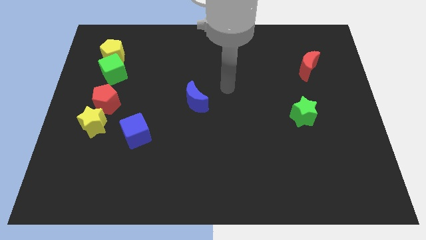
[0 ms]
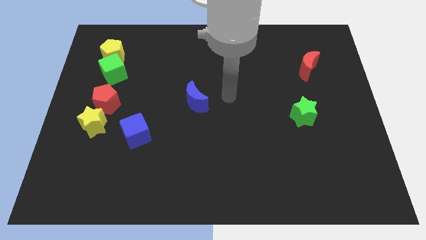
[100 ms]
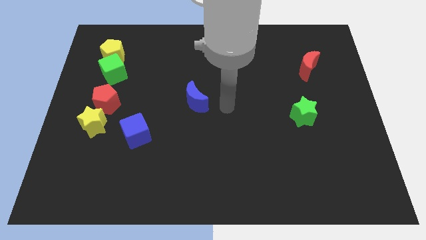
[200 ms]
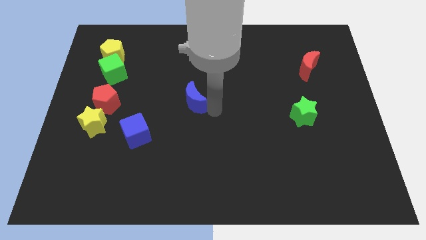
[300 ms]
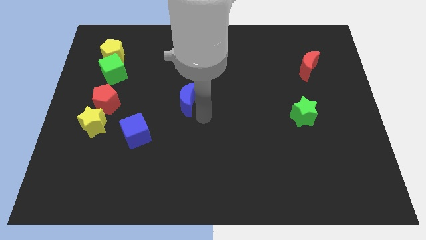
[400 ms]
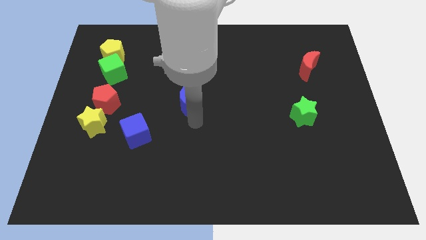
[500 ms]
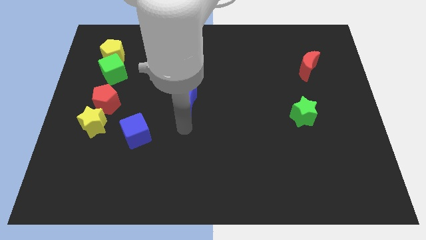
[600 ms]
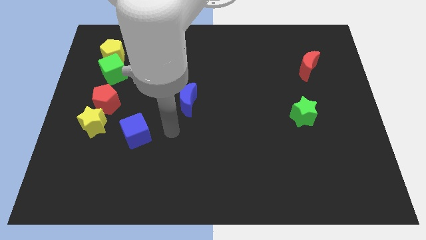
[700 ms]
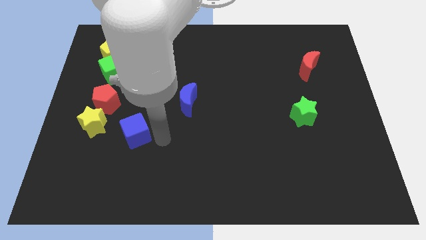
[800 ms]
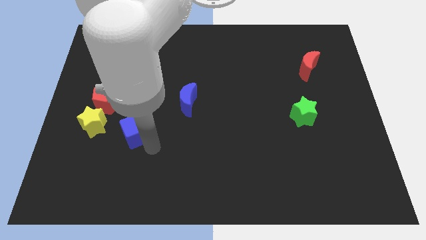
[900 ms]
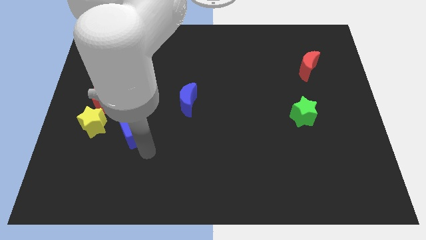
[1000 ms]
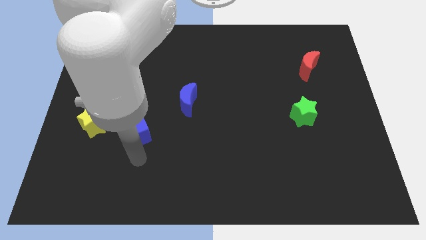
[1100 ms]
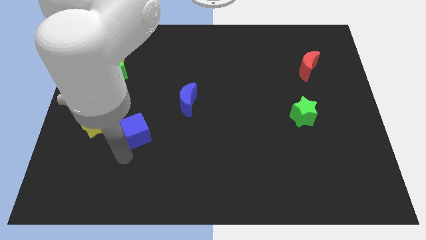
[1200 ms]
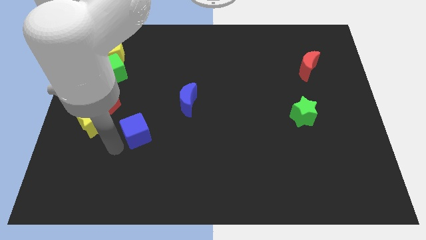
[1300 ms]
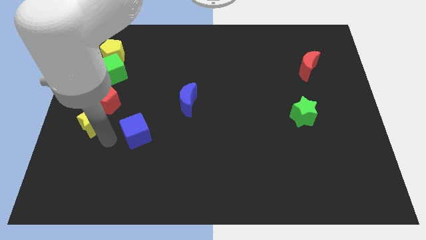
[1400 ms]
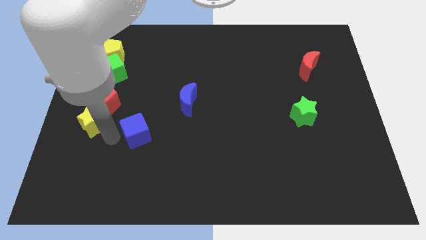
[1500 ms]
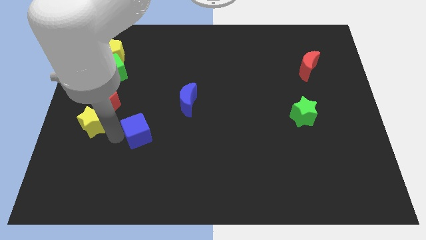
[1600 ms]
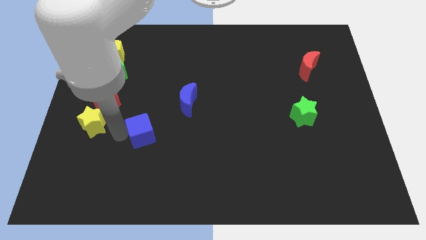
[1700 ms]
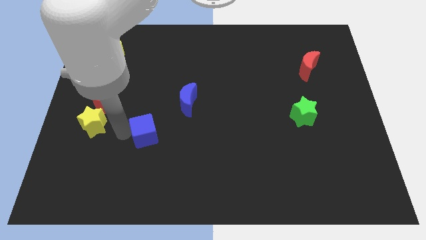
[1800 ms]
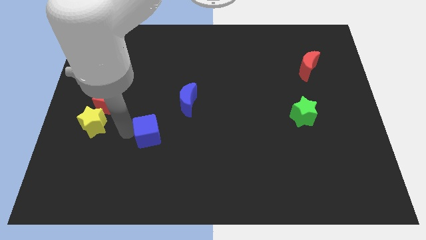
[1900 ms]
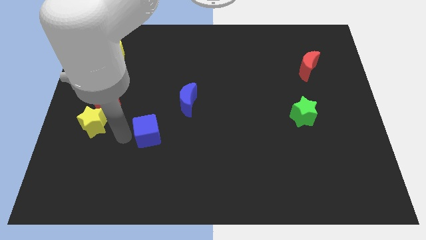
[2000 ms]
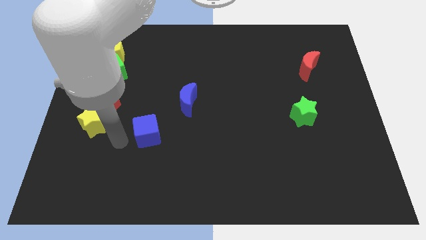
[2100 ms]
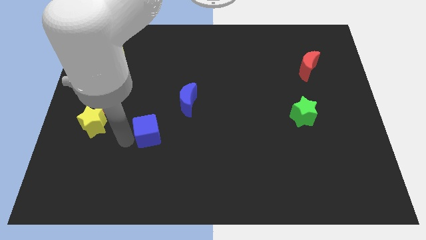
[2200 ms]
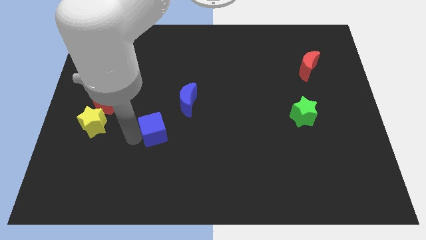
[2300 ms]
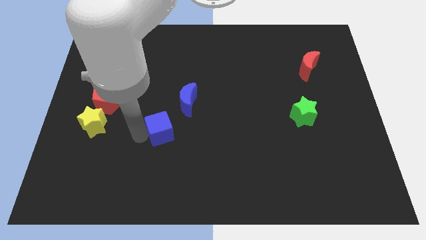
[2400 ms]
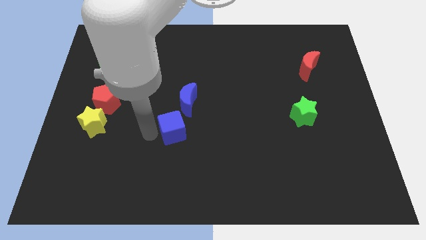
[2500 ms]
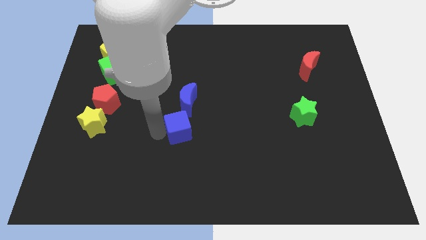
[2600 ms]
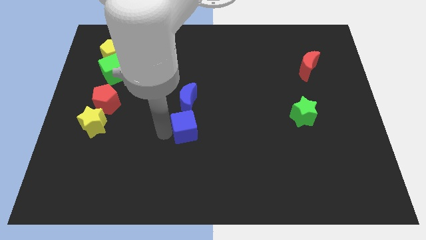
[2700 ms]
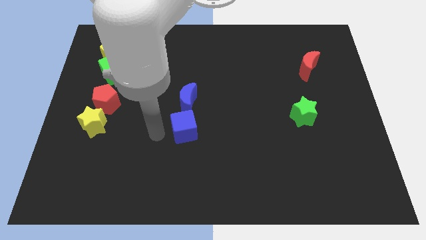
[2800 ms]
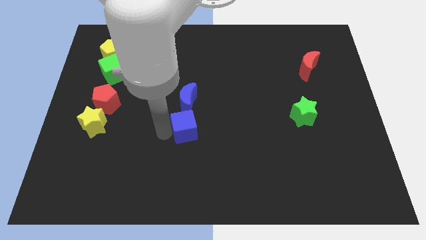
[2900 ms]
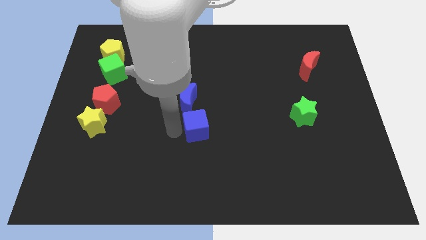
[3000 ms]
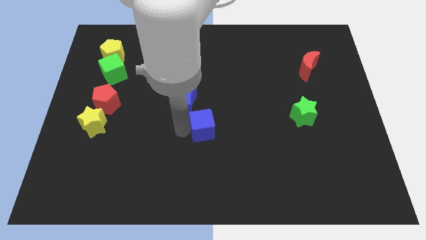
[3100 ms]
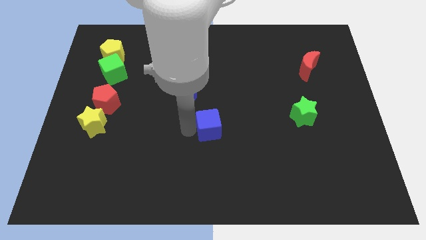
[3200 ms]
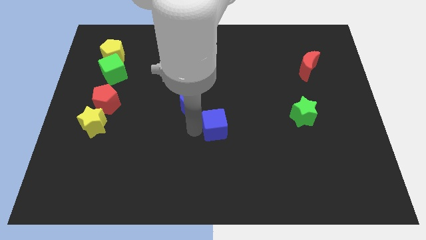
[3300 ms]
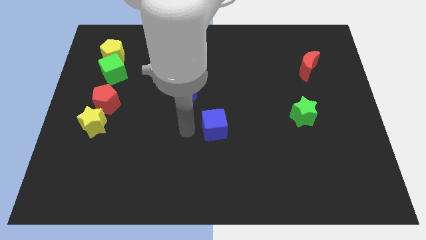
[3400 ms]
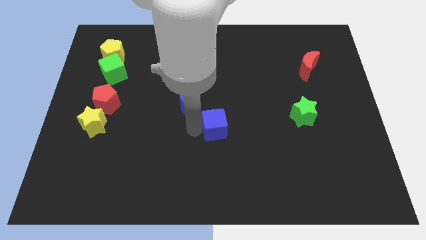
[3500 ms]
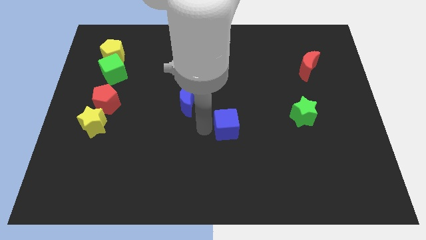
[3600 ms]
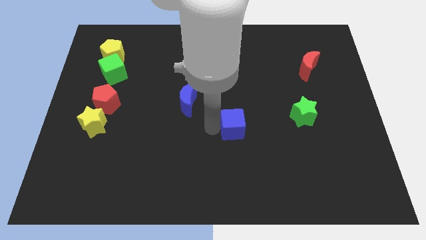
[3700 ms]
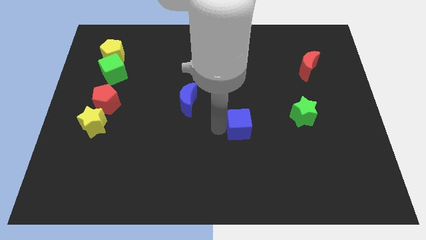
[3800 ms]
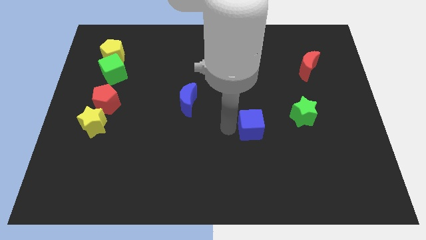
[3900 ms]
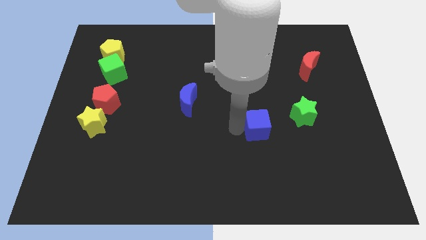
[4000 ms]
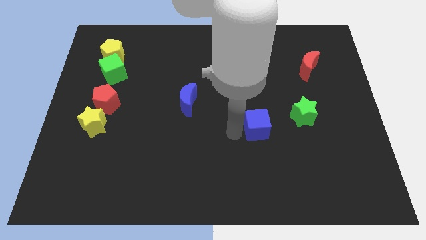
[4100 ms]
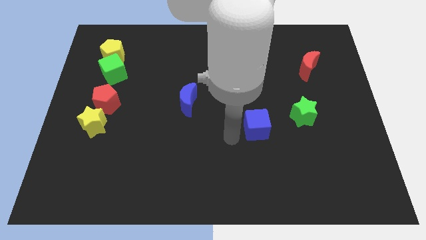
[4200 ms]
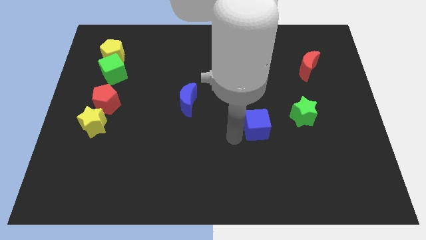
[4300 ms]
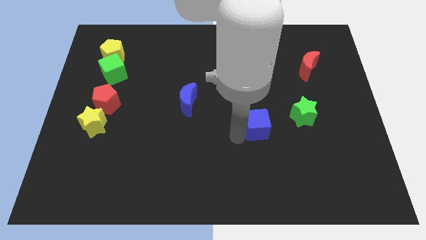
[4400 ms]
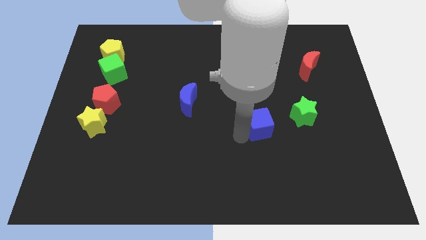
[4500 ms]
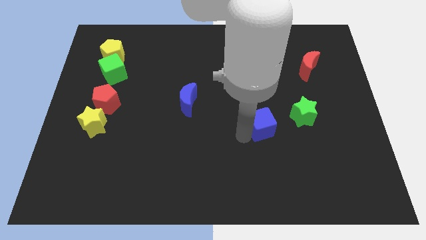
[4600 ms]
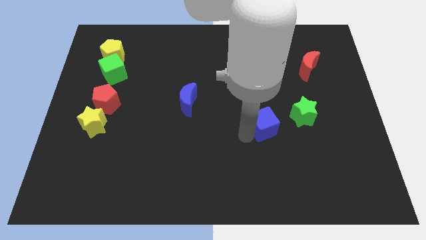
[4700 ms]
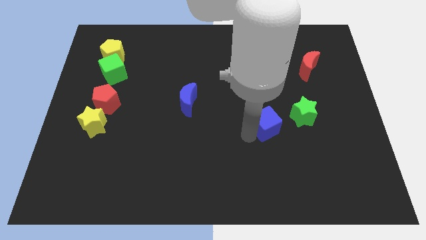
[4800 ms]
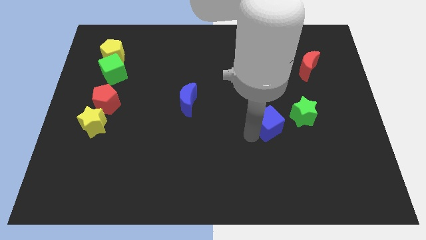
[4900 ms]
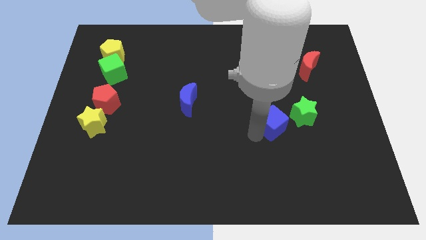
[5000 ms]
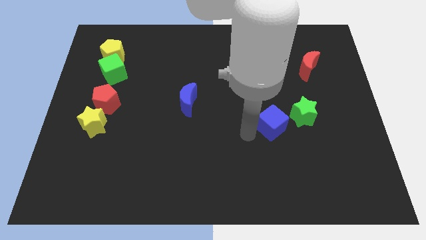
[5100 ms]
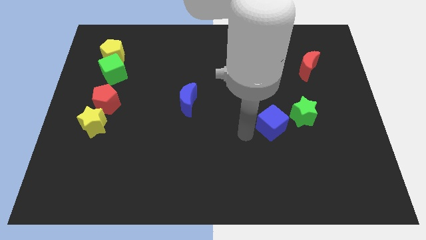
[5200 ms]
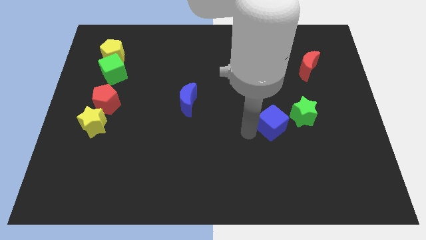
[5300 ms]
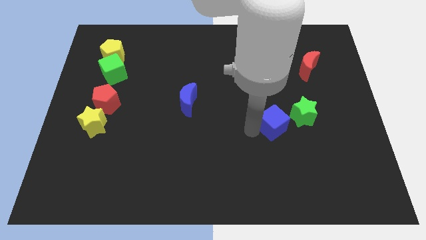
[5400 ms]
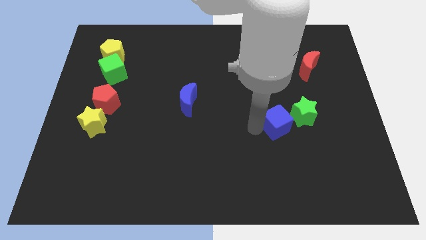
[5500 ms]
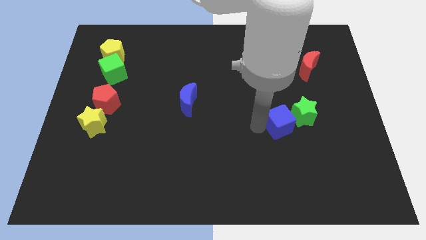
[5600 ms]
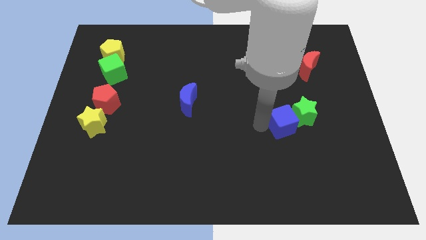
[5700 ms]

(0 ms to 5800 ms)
slide the blue cube to the green star

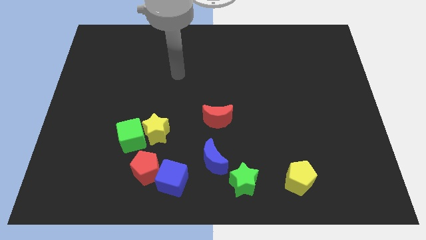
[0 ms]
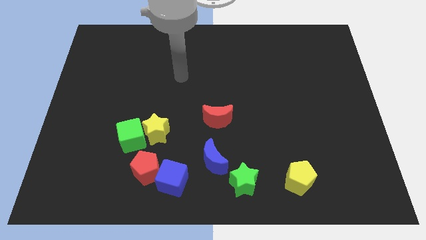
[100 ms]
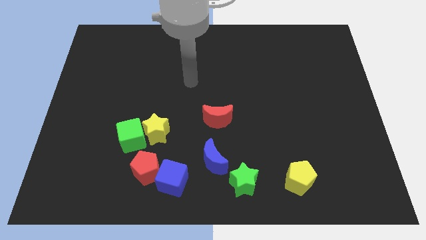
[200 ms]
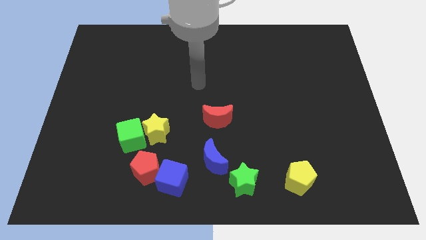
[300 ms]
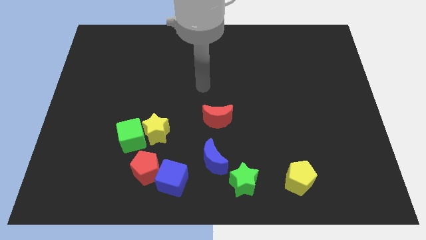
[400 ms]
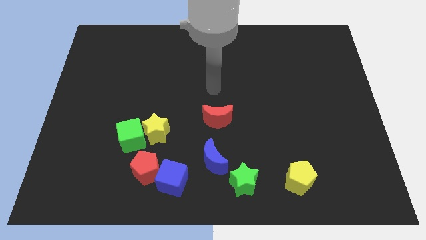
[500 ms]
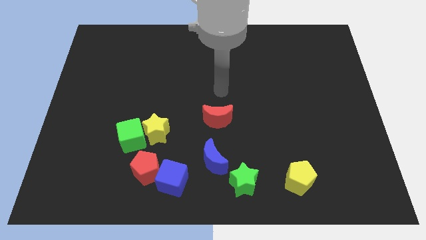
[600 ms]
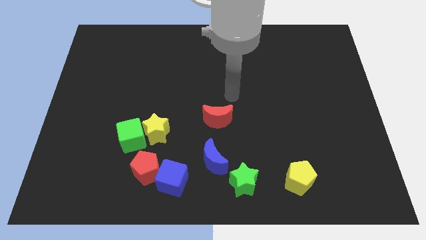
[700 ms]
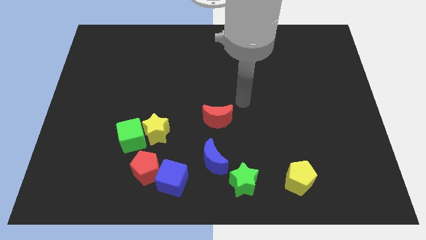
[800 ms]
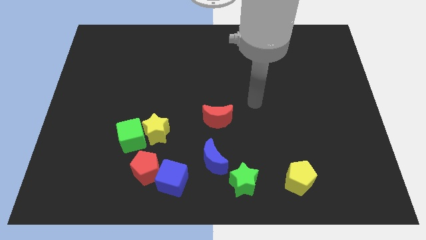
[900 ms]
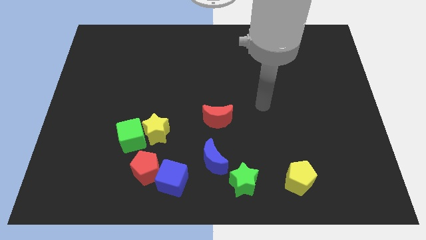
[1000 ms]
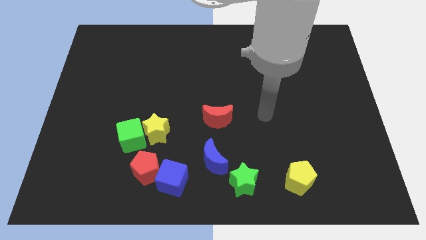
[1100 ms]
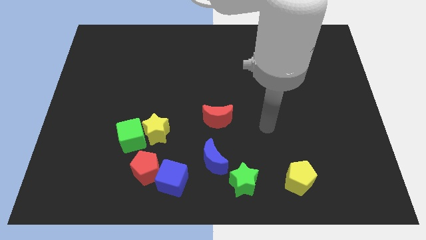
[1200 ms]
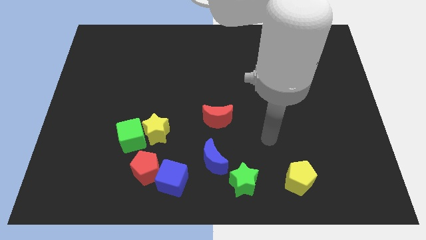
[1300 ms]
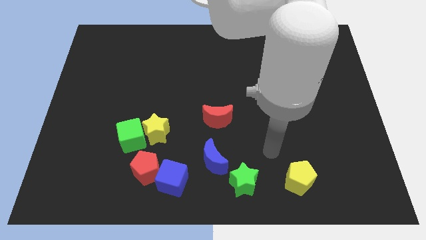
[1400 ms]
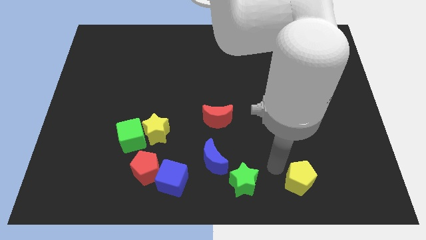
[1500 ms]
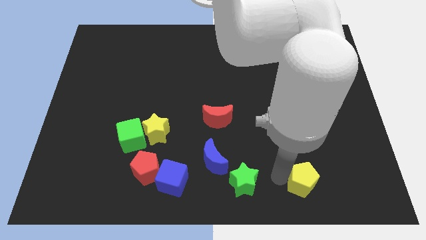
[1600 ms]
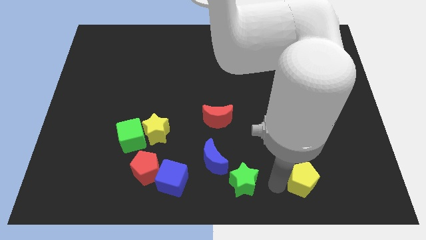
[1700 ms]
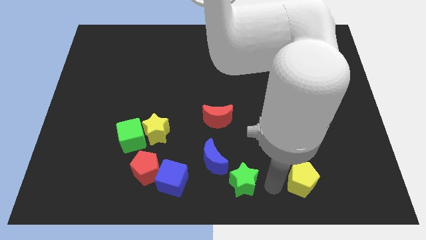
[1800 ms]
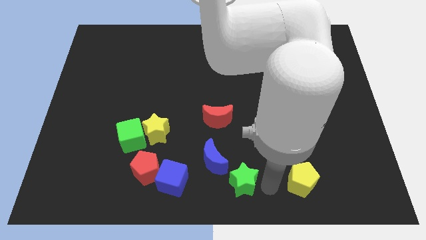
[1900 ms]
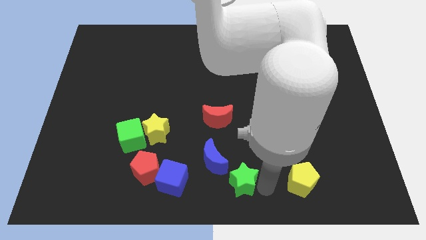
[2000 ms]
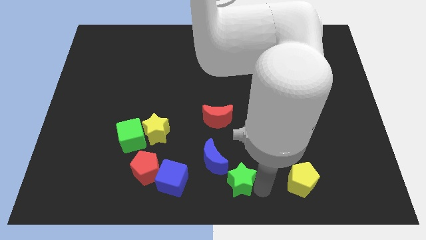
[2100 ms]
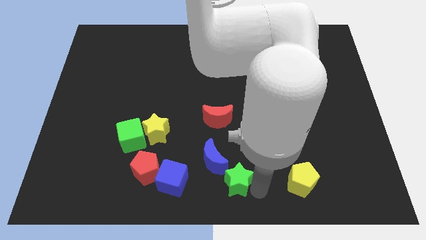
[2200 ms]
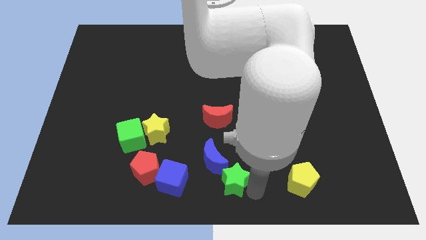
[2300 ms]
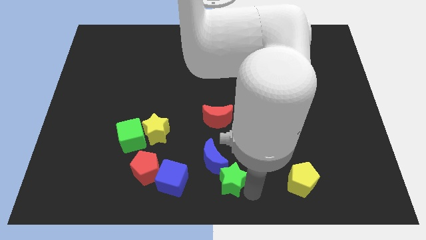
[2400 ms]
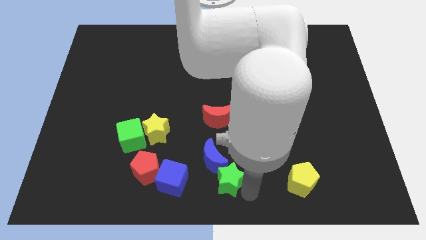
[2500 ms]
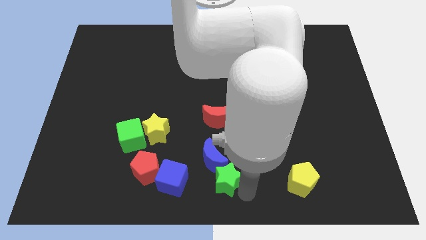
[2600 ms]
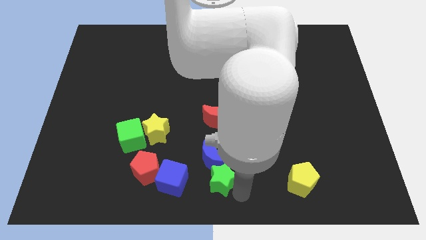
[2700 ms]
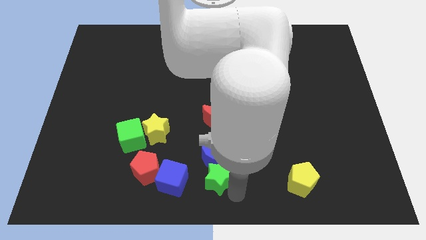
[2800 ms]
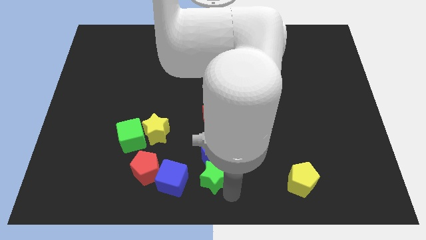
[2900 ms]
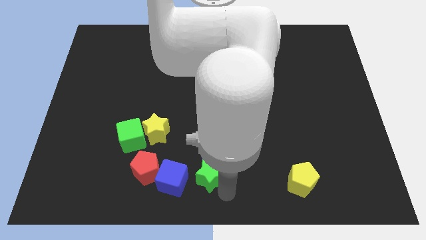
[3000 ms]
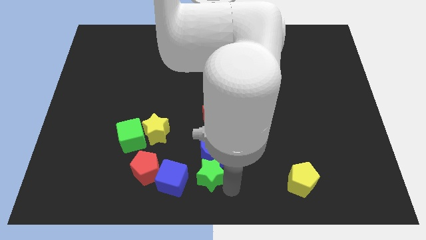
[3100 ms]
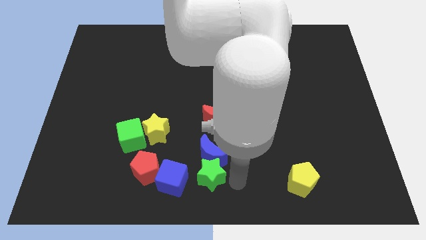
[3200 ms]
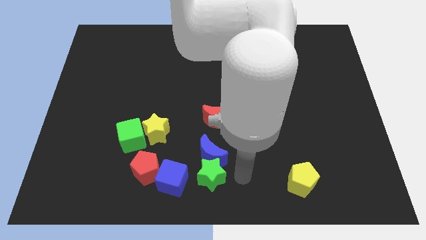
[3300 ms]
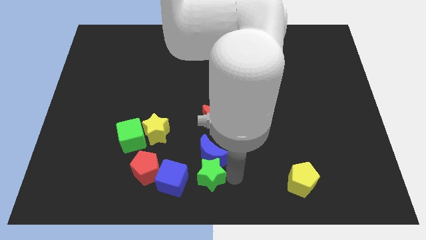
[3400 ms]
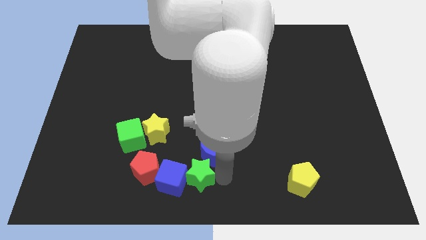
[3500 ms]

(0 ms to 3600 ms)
slide the green star close to the blue cube
